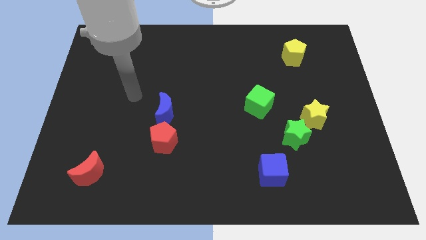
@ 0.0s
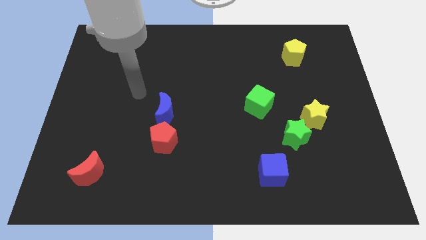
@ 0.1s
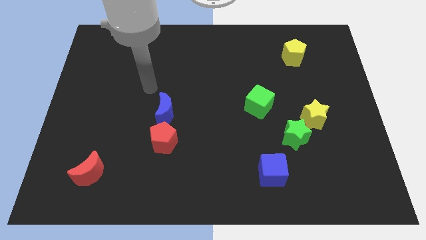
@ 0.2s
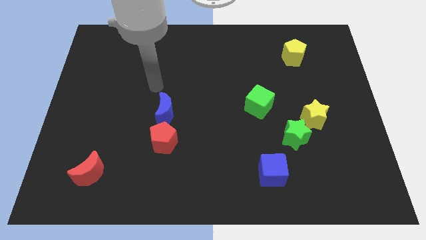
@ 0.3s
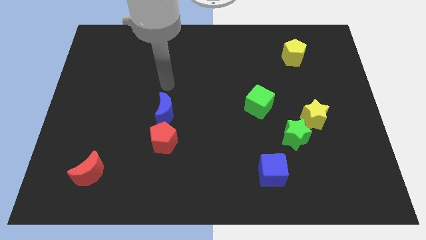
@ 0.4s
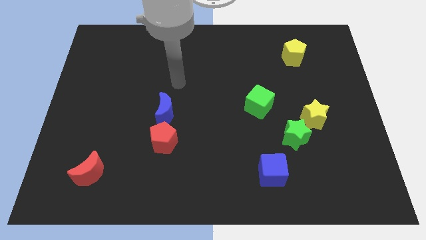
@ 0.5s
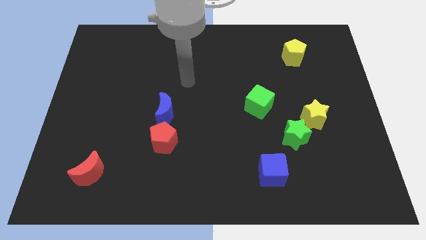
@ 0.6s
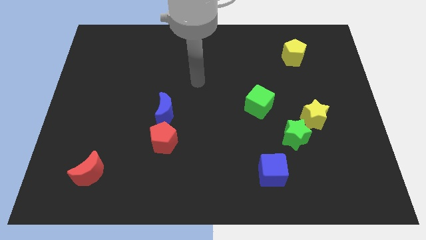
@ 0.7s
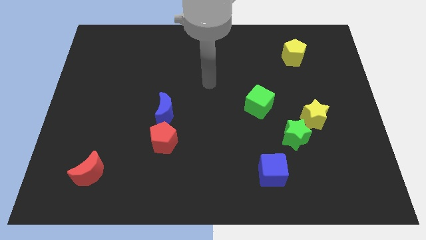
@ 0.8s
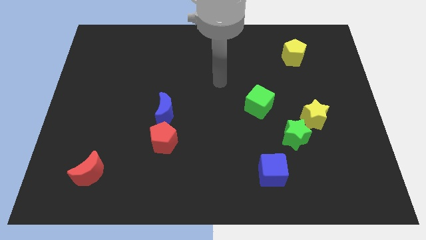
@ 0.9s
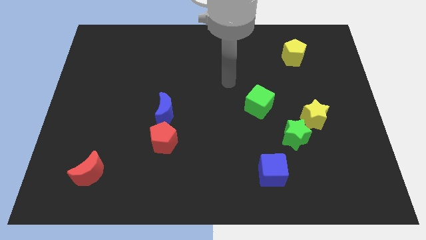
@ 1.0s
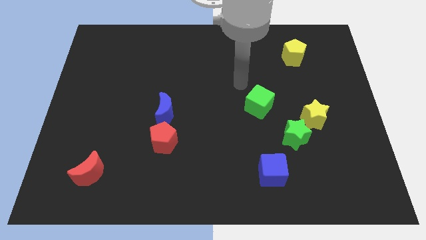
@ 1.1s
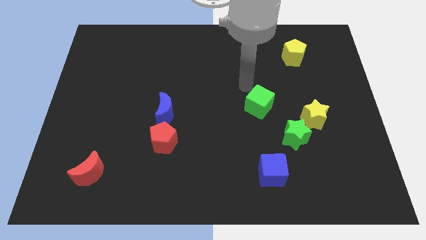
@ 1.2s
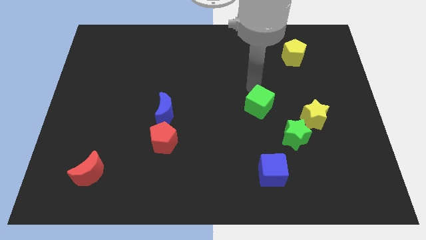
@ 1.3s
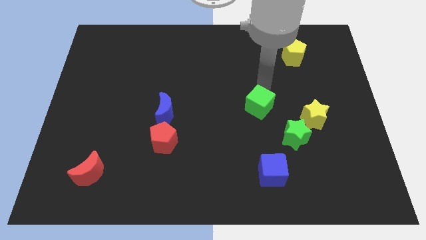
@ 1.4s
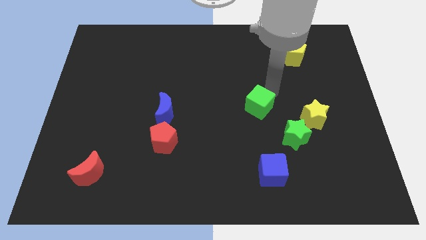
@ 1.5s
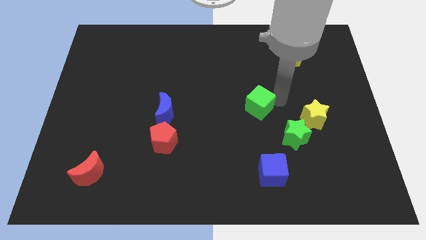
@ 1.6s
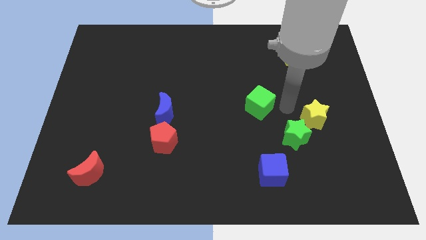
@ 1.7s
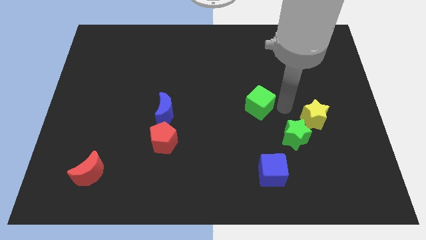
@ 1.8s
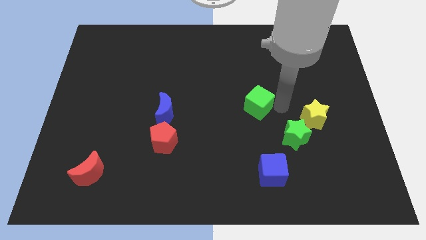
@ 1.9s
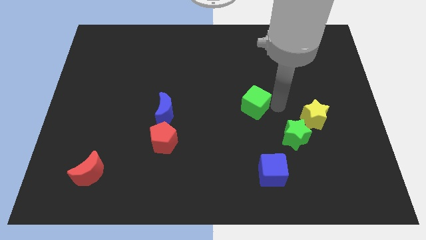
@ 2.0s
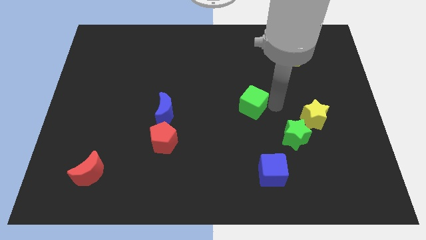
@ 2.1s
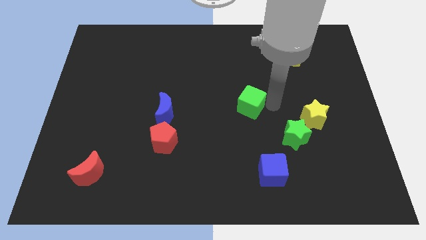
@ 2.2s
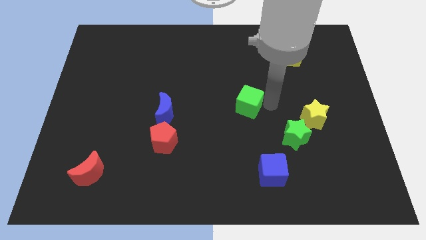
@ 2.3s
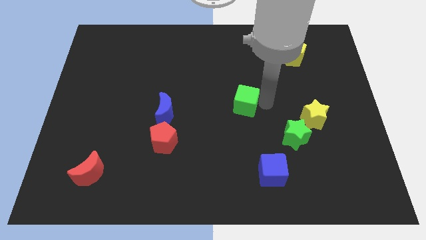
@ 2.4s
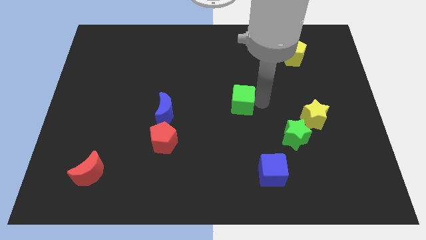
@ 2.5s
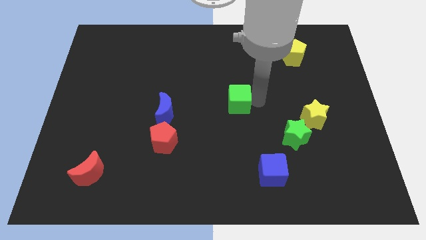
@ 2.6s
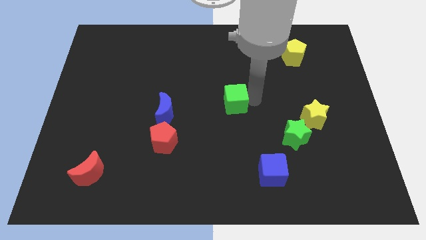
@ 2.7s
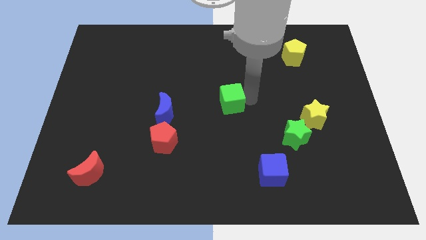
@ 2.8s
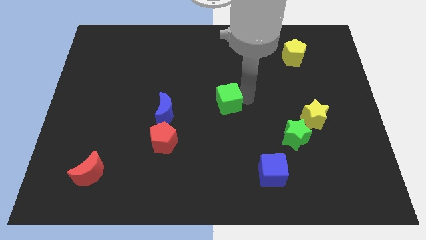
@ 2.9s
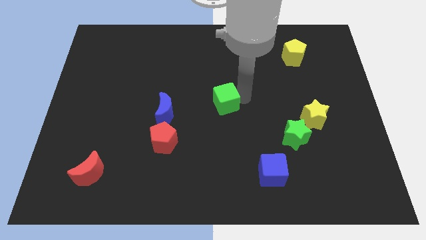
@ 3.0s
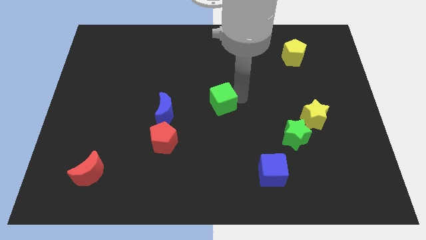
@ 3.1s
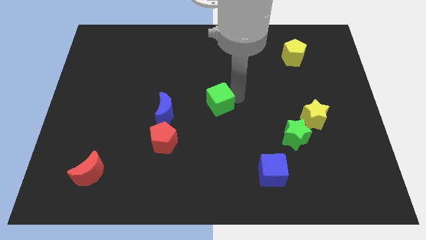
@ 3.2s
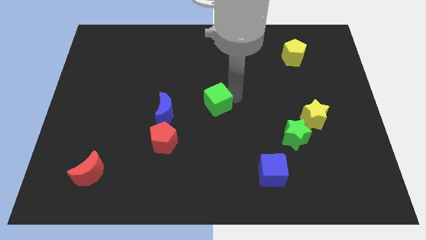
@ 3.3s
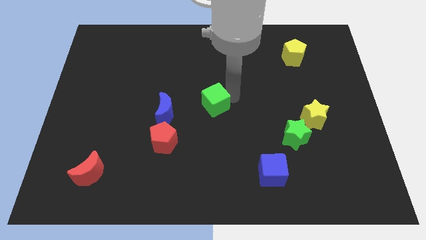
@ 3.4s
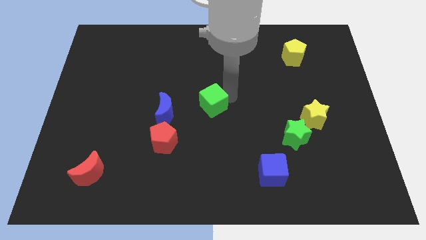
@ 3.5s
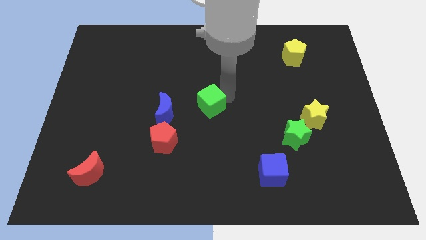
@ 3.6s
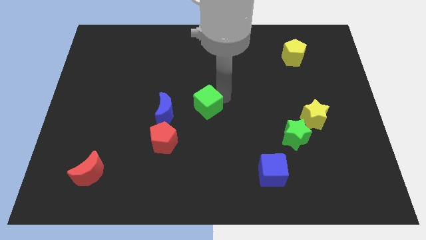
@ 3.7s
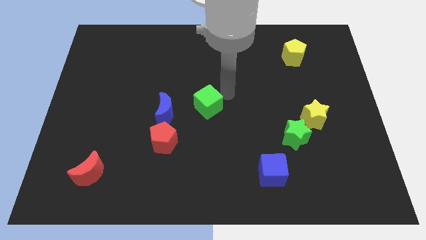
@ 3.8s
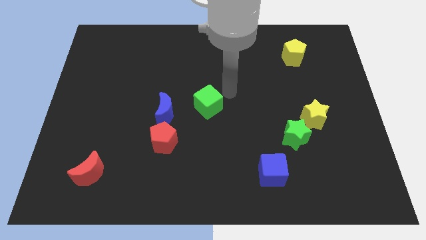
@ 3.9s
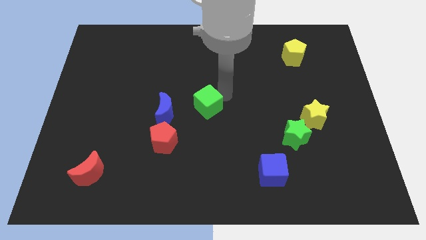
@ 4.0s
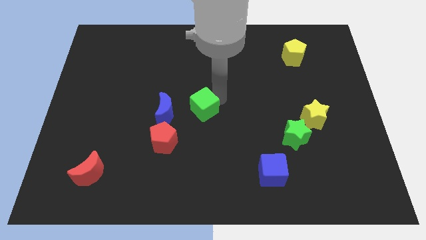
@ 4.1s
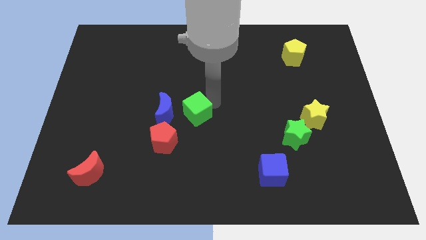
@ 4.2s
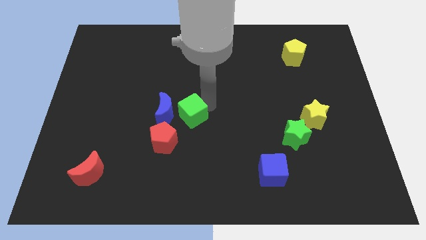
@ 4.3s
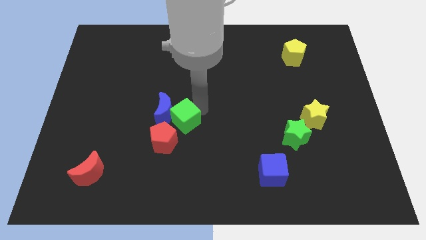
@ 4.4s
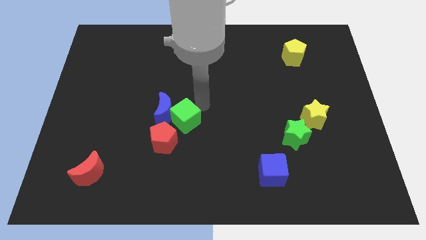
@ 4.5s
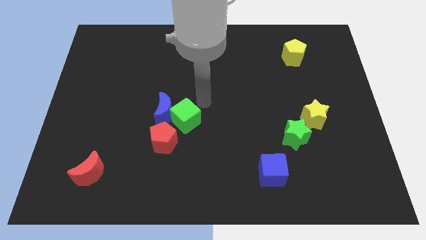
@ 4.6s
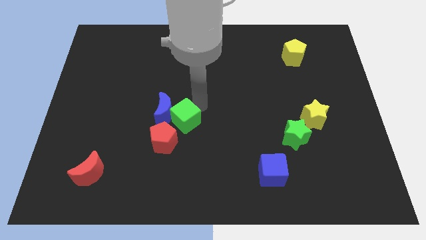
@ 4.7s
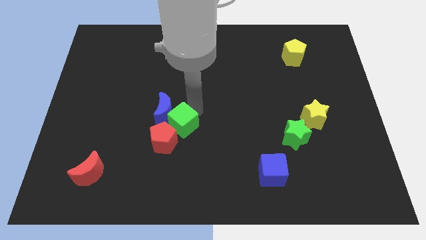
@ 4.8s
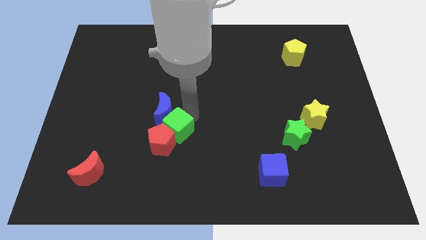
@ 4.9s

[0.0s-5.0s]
put the green cube towards the red pentagon

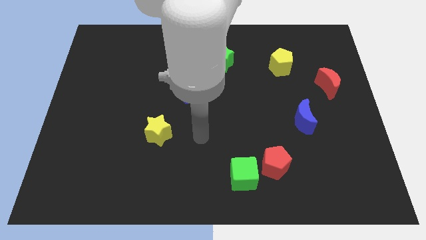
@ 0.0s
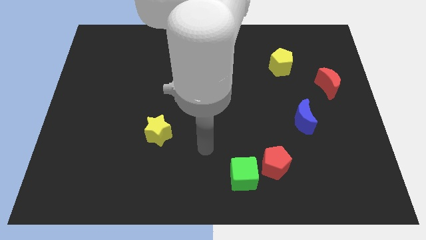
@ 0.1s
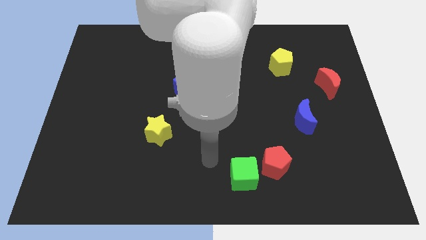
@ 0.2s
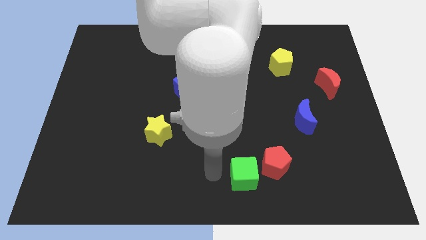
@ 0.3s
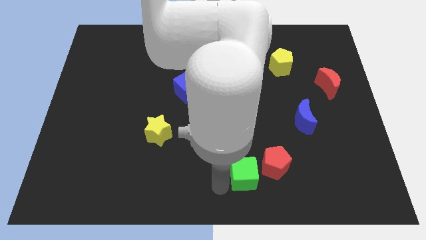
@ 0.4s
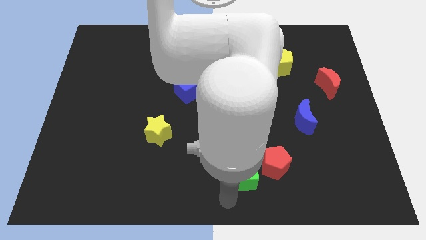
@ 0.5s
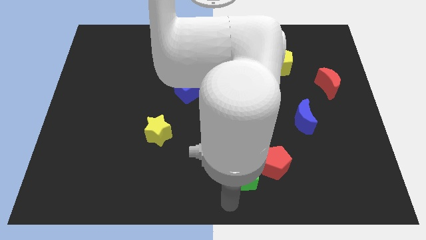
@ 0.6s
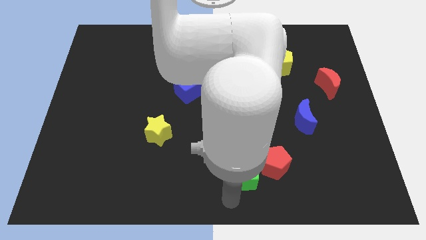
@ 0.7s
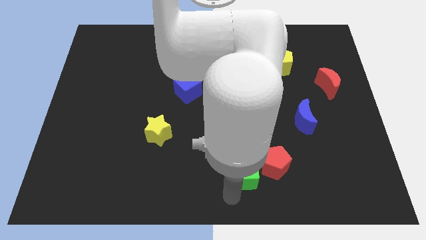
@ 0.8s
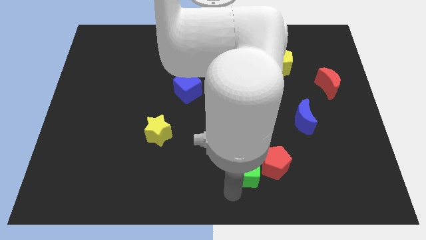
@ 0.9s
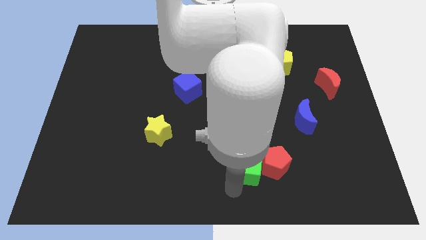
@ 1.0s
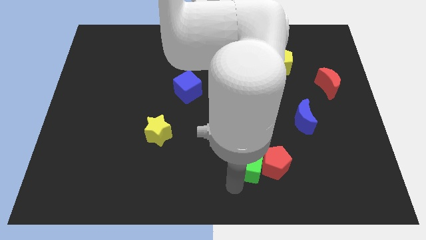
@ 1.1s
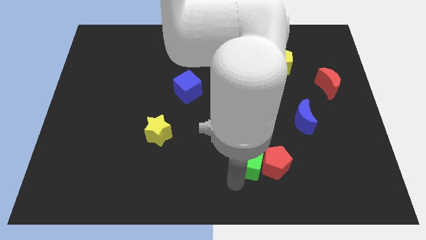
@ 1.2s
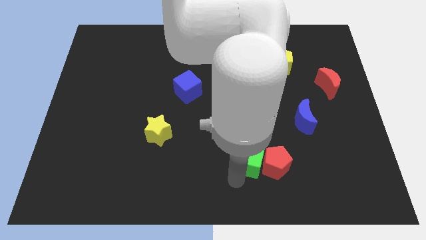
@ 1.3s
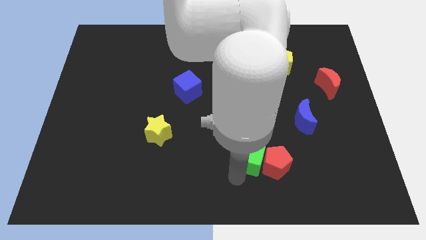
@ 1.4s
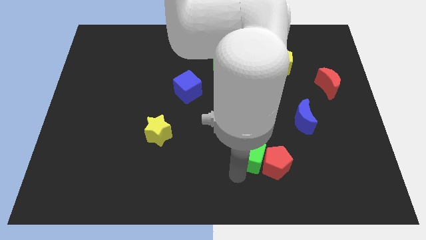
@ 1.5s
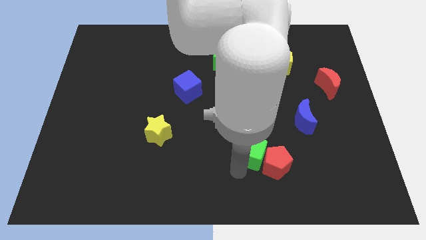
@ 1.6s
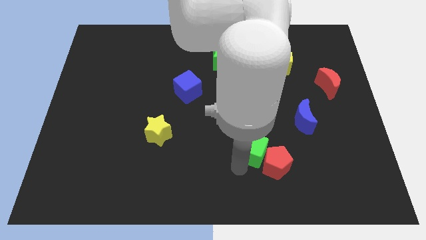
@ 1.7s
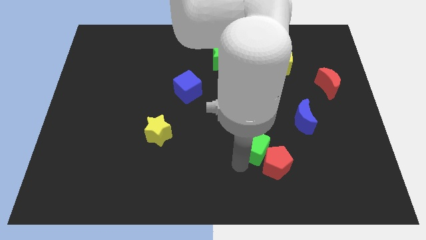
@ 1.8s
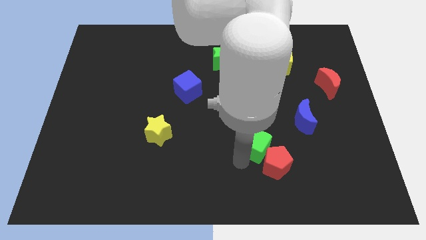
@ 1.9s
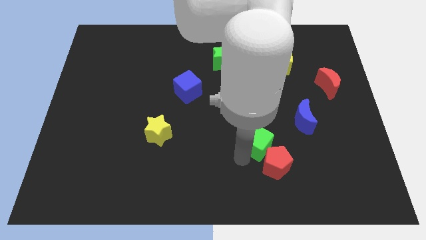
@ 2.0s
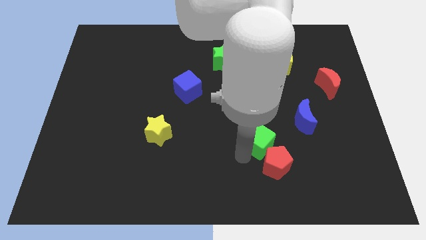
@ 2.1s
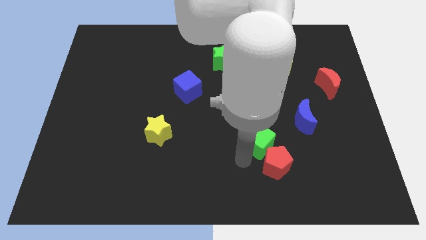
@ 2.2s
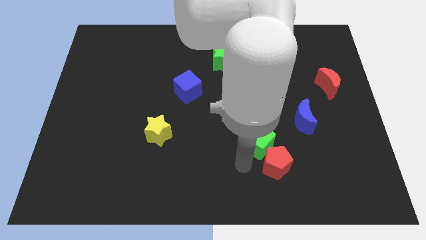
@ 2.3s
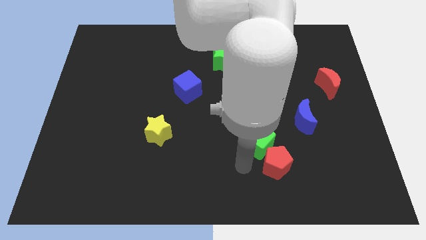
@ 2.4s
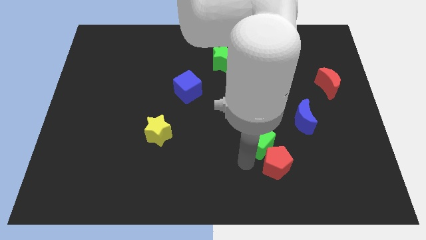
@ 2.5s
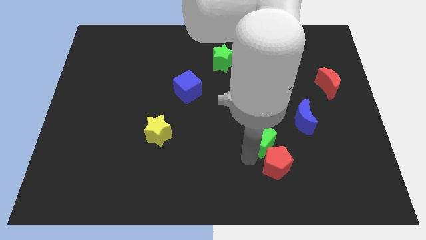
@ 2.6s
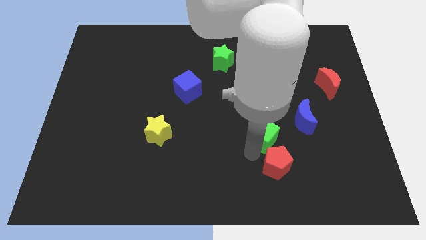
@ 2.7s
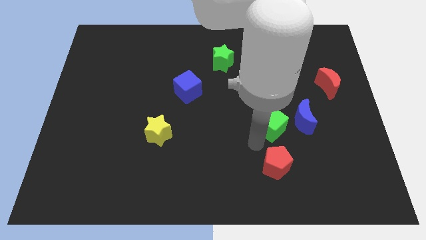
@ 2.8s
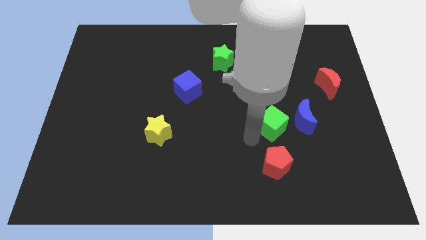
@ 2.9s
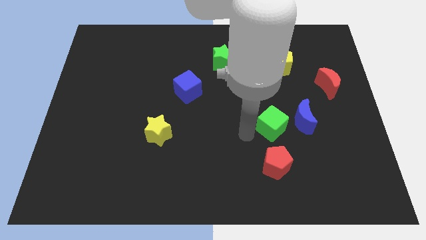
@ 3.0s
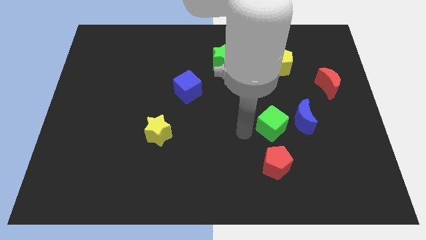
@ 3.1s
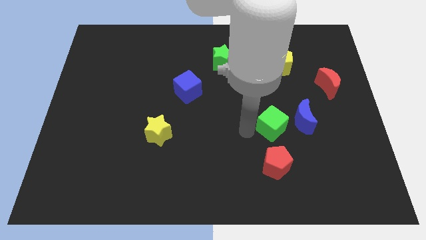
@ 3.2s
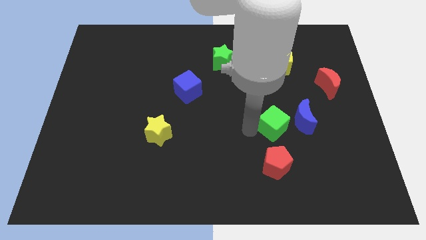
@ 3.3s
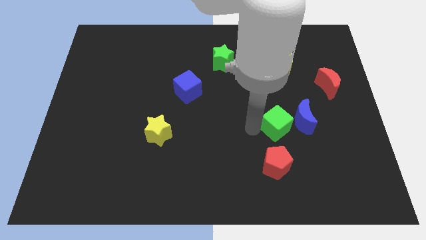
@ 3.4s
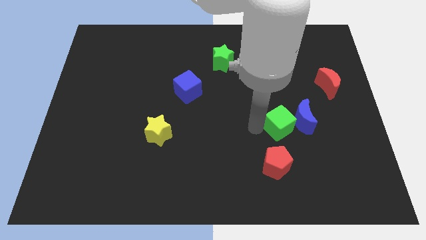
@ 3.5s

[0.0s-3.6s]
push the green cube towards the blue moon

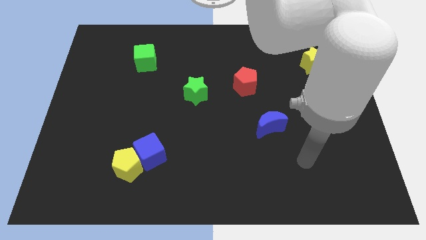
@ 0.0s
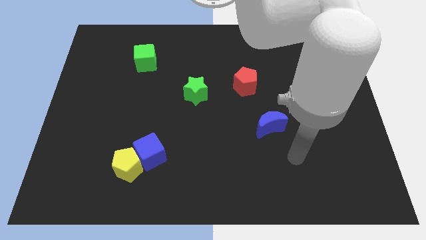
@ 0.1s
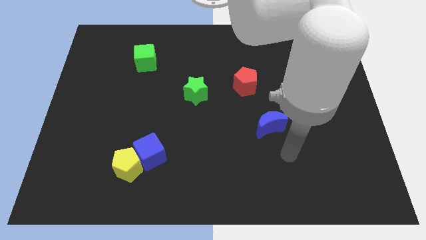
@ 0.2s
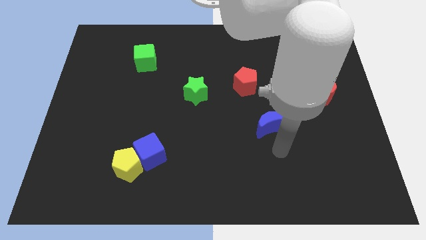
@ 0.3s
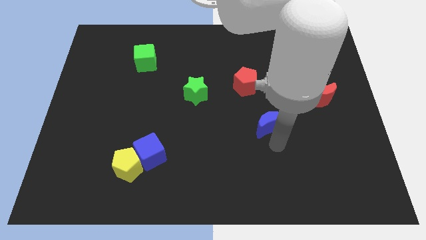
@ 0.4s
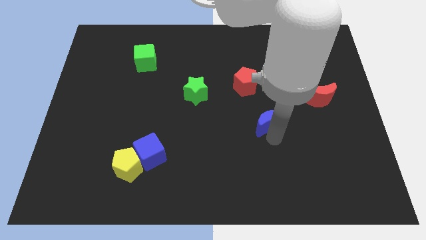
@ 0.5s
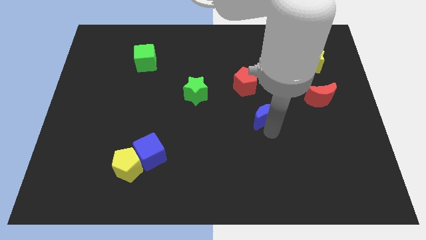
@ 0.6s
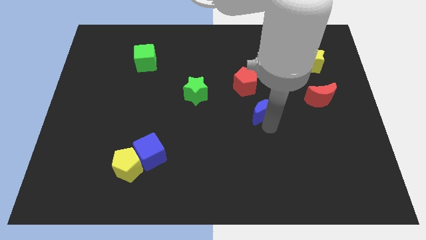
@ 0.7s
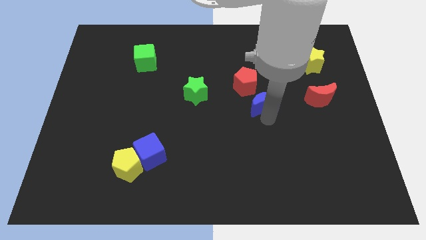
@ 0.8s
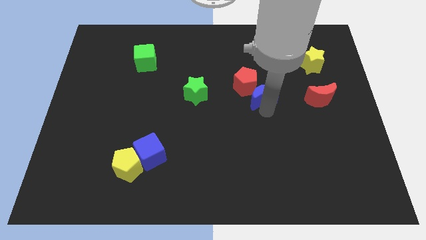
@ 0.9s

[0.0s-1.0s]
push the blue moon to the red pentagon
